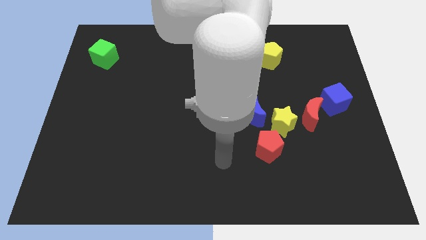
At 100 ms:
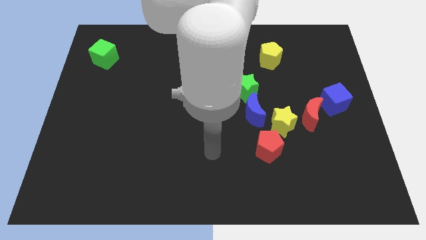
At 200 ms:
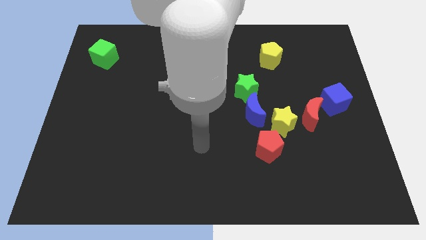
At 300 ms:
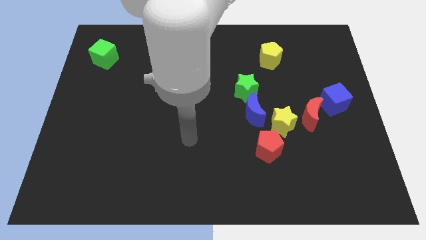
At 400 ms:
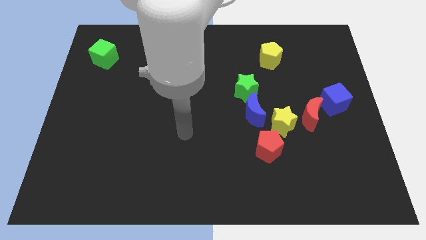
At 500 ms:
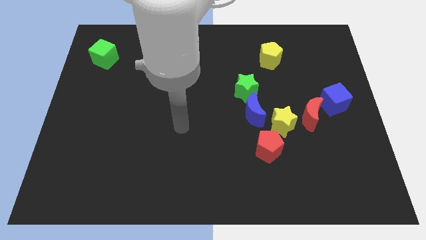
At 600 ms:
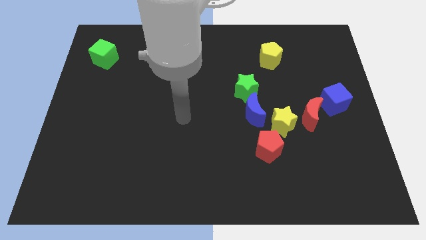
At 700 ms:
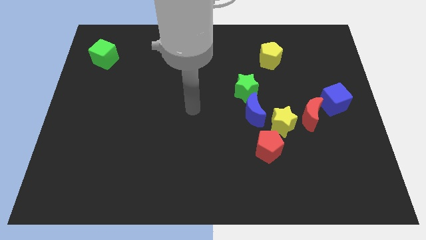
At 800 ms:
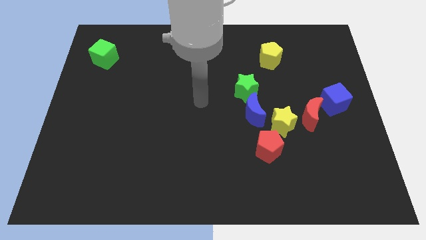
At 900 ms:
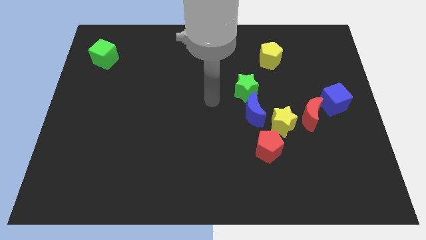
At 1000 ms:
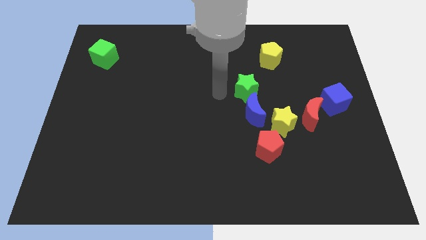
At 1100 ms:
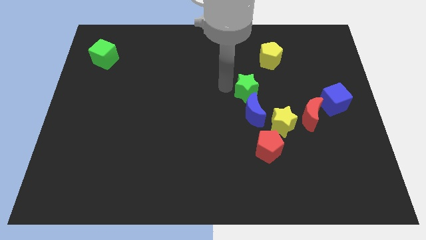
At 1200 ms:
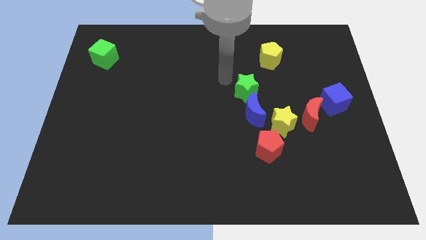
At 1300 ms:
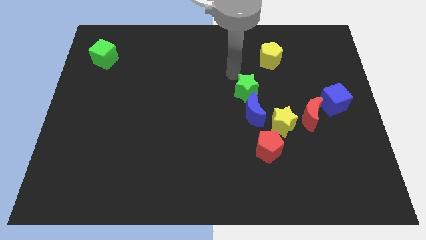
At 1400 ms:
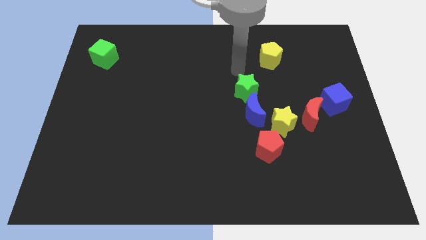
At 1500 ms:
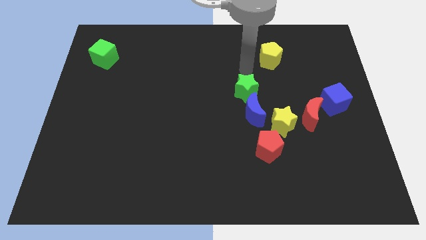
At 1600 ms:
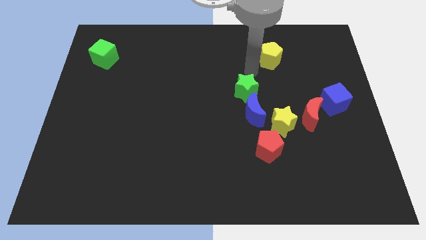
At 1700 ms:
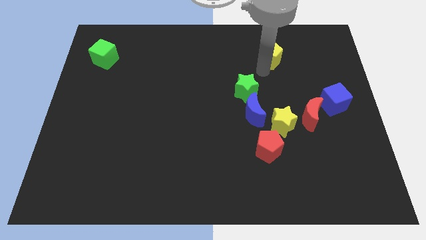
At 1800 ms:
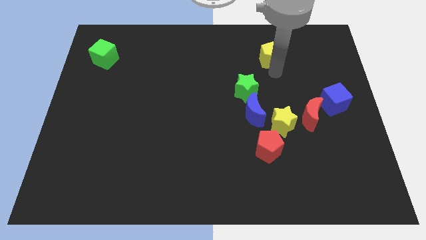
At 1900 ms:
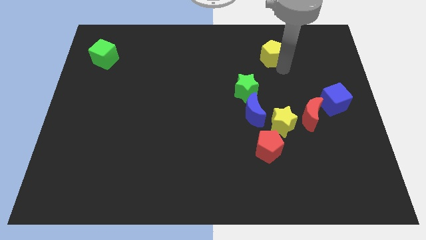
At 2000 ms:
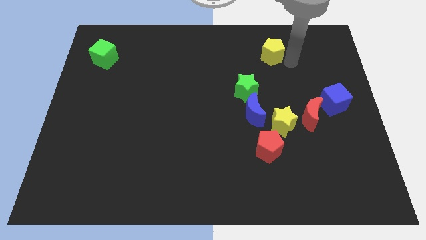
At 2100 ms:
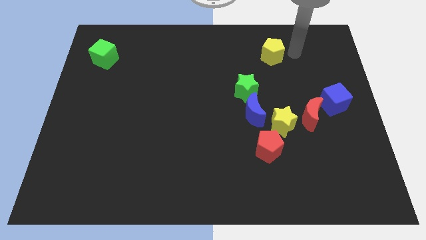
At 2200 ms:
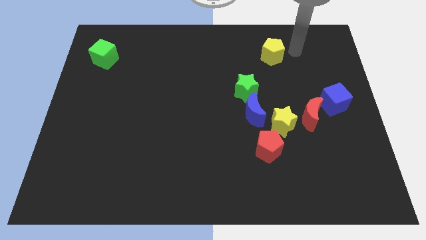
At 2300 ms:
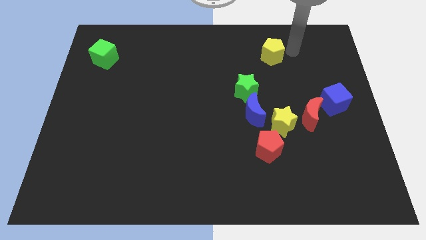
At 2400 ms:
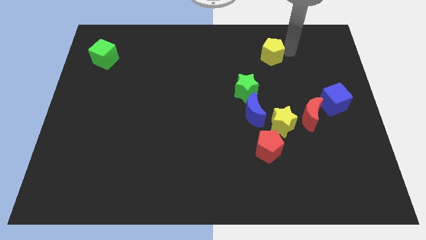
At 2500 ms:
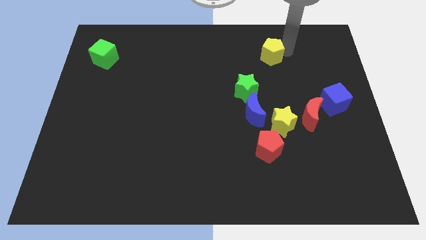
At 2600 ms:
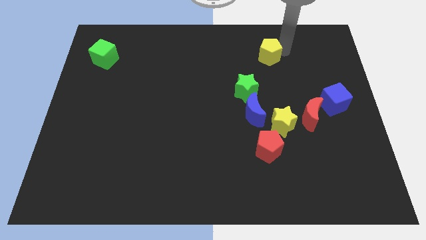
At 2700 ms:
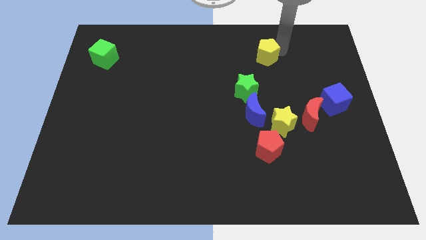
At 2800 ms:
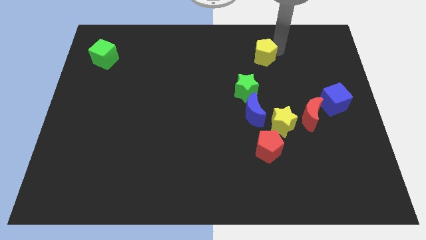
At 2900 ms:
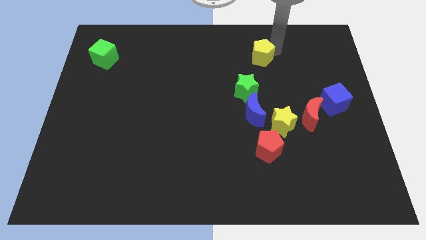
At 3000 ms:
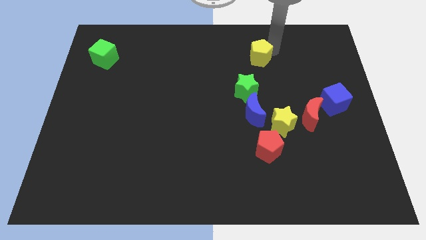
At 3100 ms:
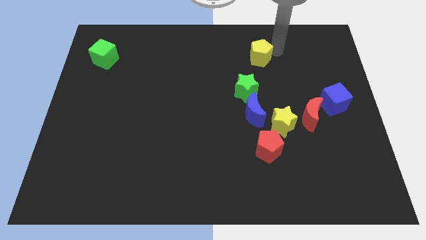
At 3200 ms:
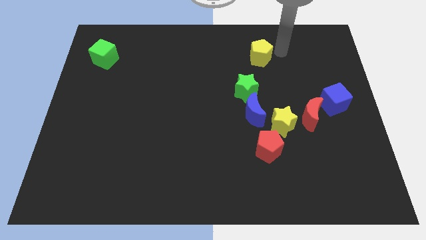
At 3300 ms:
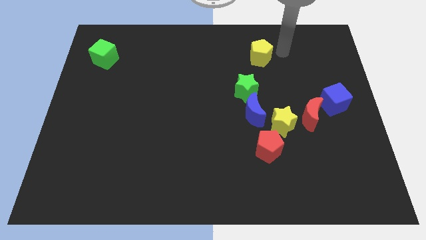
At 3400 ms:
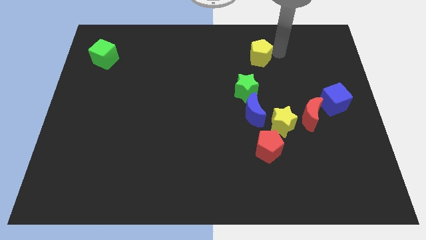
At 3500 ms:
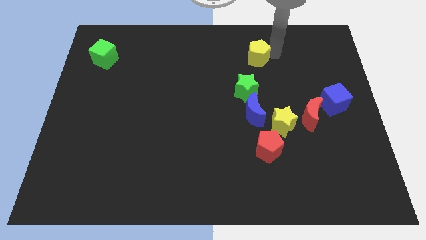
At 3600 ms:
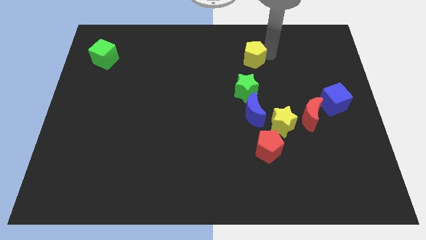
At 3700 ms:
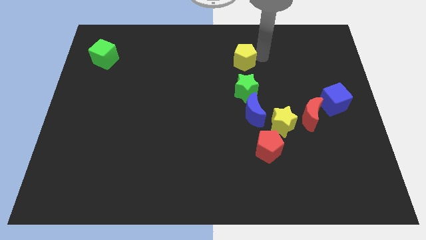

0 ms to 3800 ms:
slightly move the yellow pentagon to the left

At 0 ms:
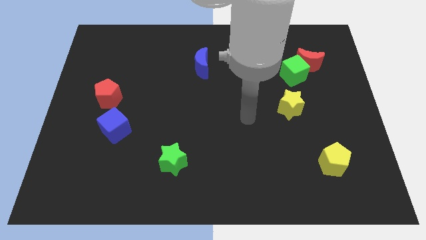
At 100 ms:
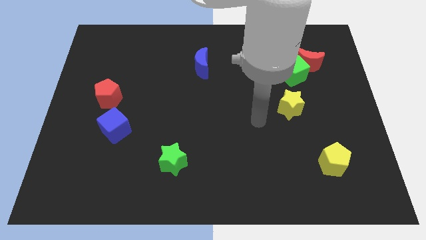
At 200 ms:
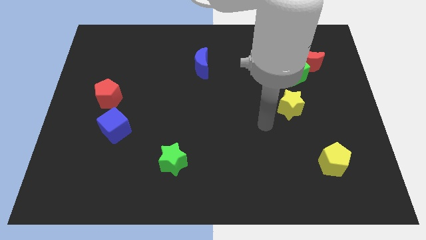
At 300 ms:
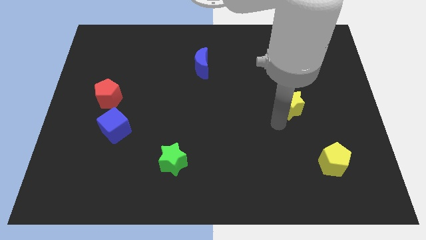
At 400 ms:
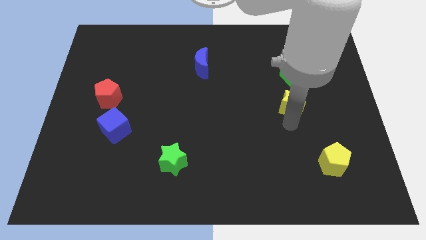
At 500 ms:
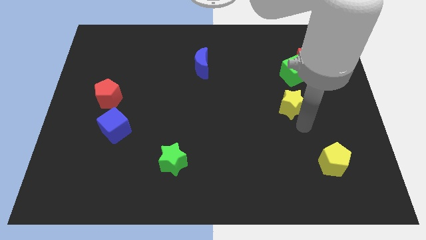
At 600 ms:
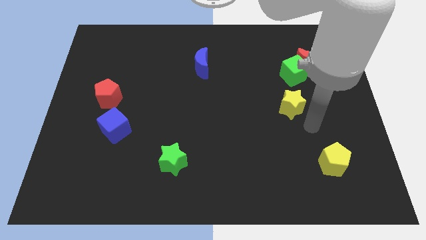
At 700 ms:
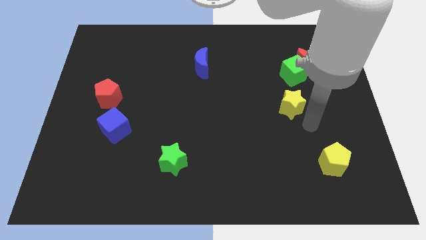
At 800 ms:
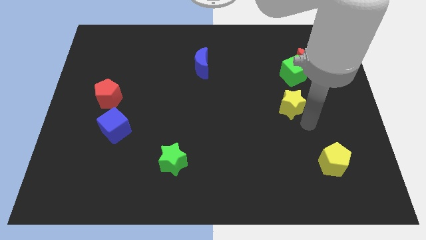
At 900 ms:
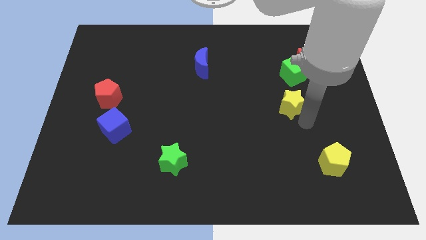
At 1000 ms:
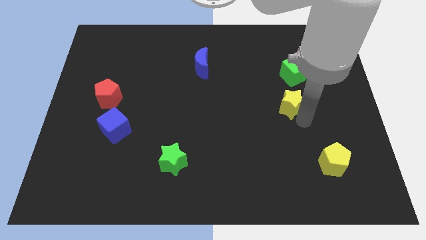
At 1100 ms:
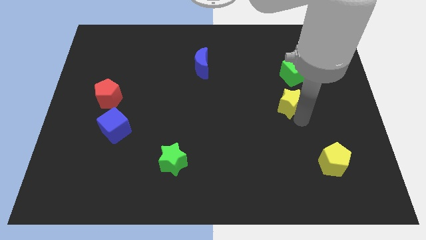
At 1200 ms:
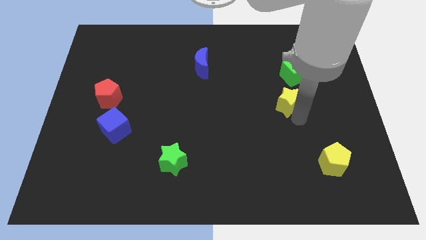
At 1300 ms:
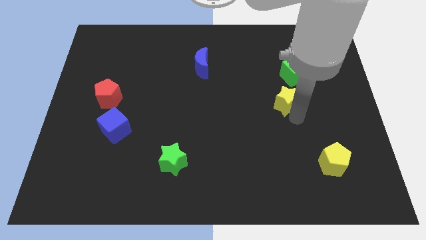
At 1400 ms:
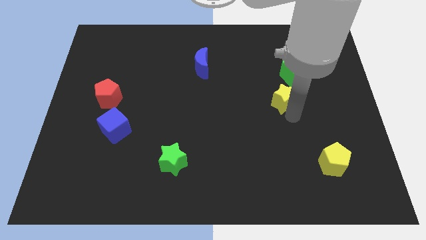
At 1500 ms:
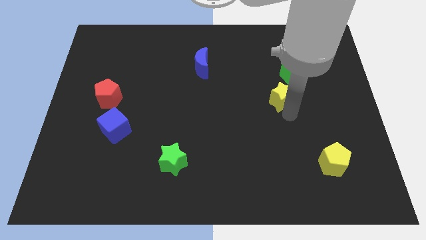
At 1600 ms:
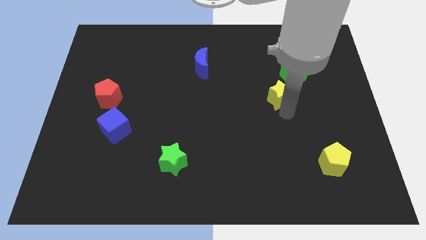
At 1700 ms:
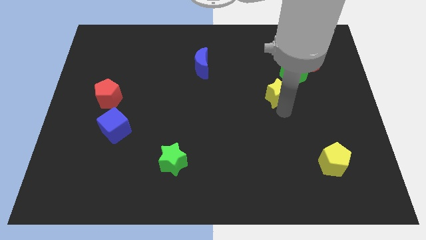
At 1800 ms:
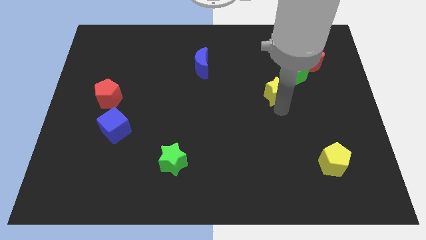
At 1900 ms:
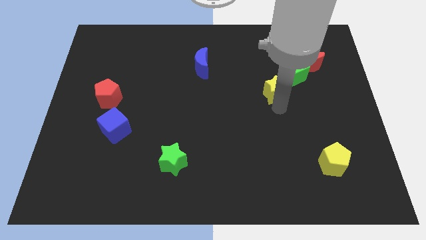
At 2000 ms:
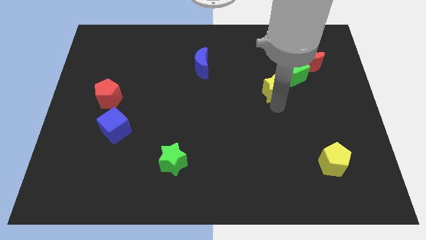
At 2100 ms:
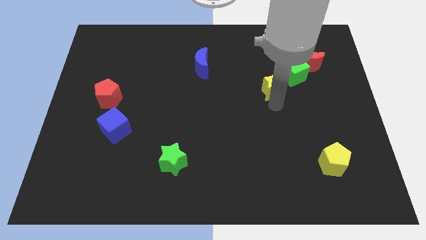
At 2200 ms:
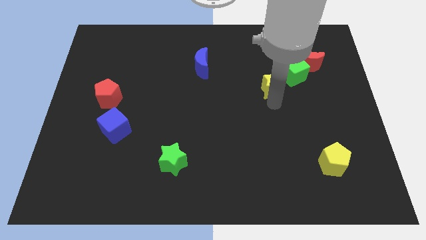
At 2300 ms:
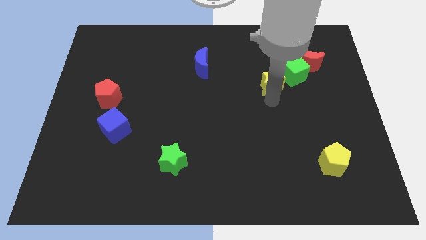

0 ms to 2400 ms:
move the yellow star up and to the left diagonally a little bit

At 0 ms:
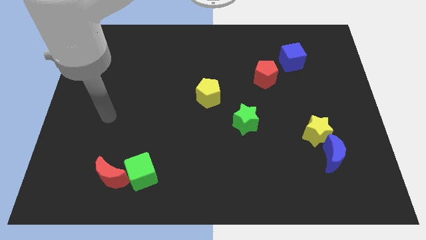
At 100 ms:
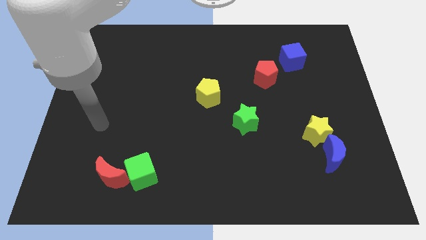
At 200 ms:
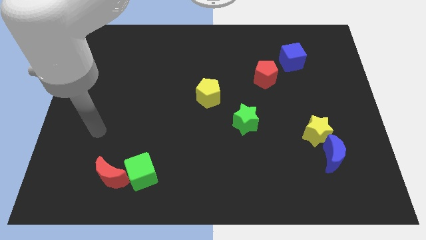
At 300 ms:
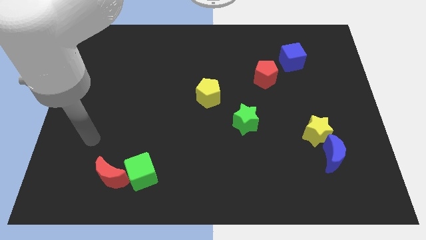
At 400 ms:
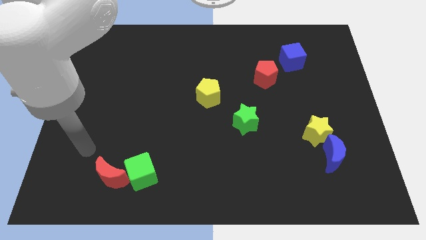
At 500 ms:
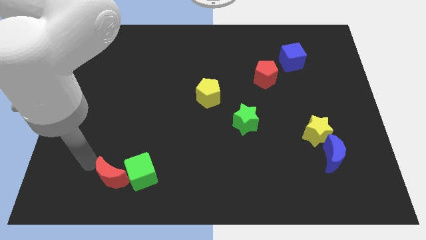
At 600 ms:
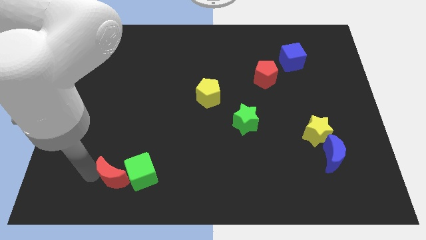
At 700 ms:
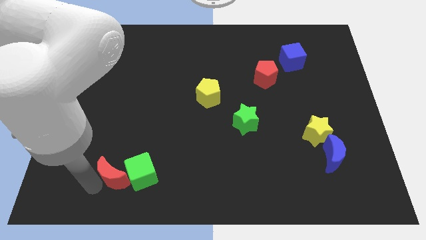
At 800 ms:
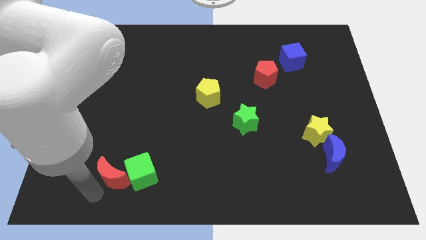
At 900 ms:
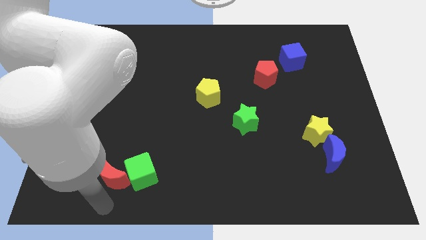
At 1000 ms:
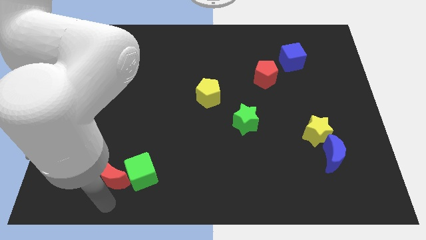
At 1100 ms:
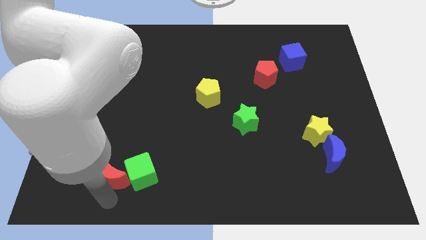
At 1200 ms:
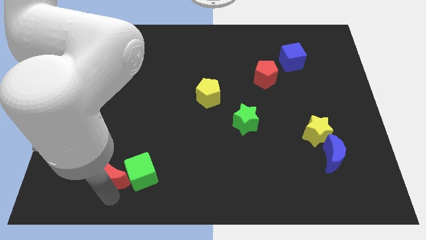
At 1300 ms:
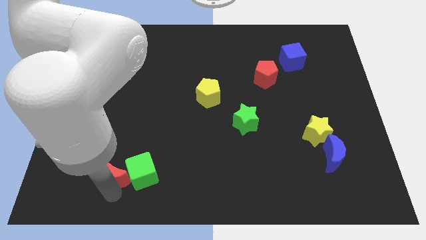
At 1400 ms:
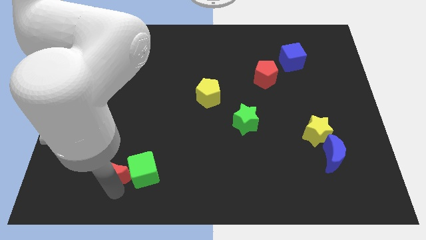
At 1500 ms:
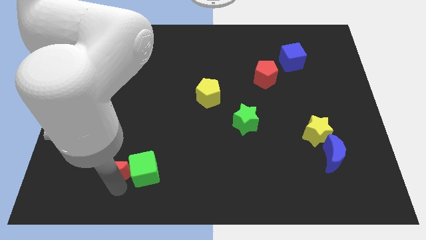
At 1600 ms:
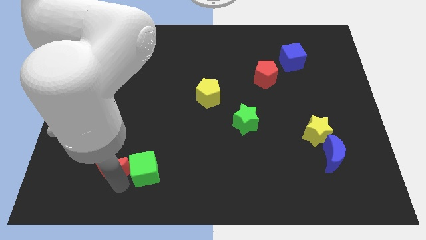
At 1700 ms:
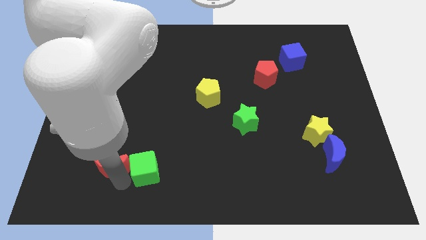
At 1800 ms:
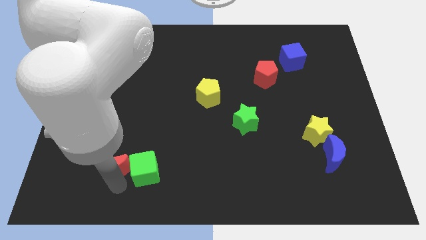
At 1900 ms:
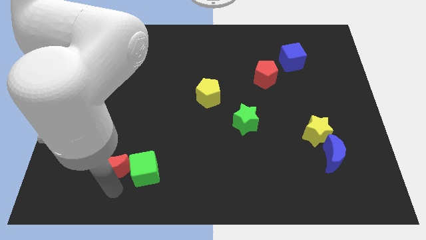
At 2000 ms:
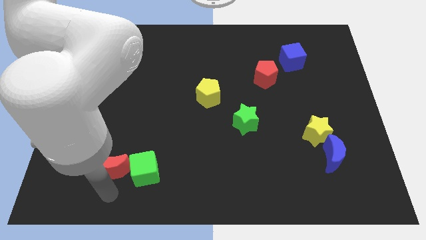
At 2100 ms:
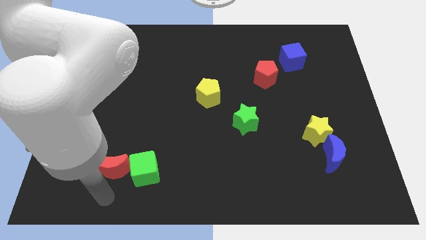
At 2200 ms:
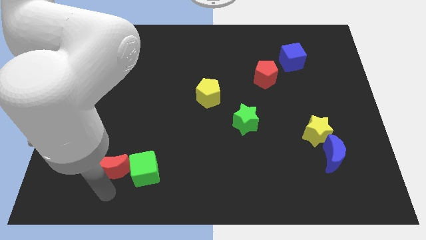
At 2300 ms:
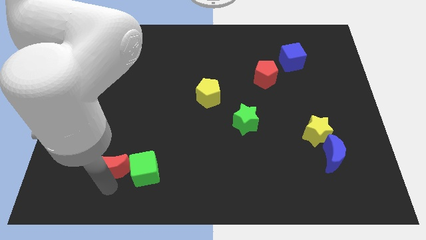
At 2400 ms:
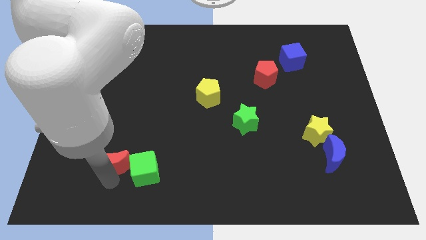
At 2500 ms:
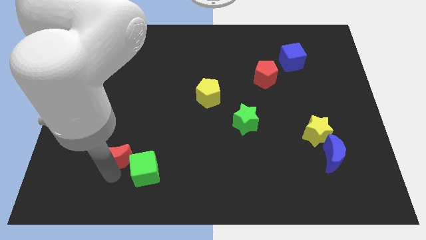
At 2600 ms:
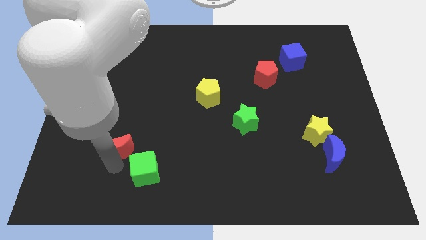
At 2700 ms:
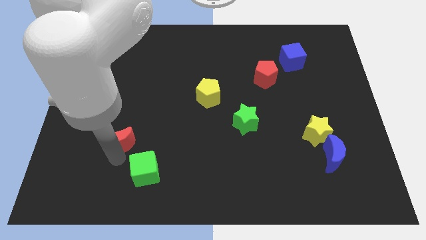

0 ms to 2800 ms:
slide the red moon a little up
